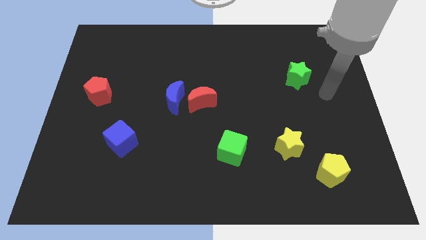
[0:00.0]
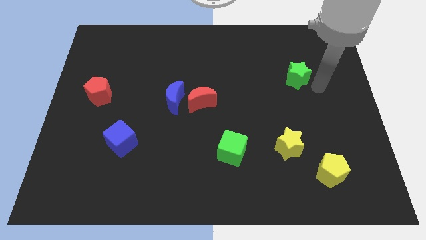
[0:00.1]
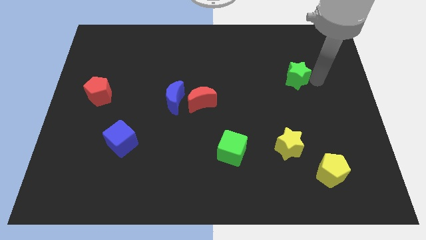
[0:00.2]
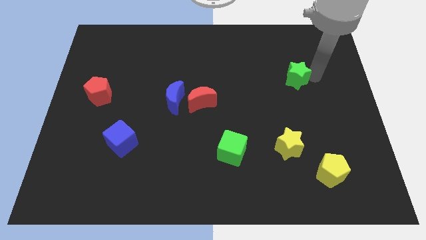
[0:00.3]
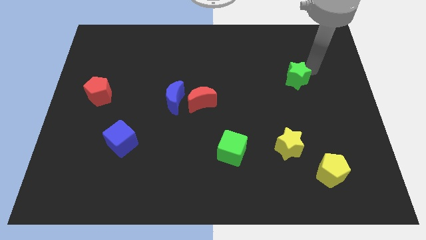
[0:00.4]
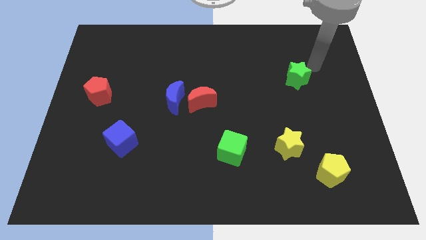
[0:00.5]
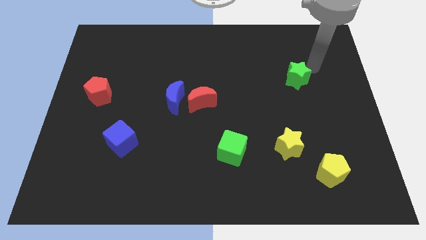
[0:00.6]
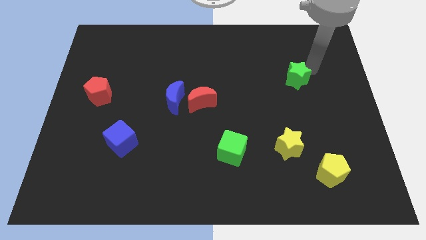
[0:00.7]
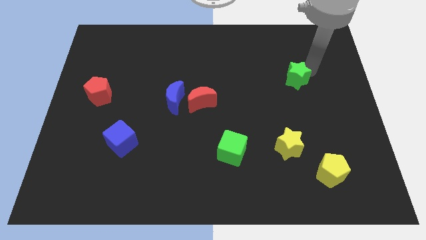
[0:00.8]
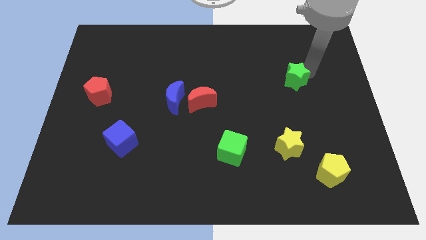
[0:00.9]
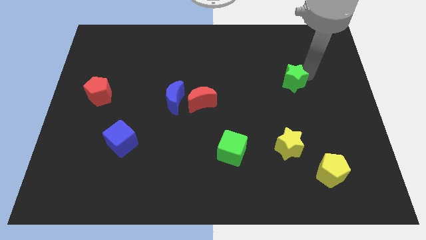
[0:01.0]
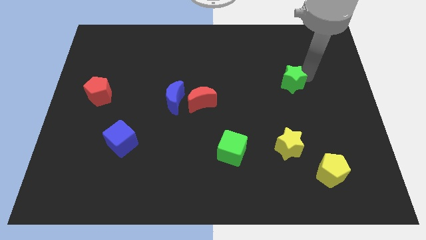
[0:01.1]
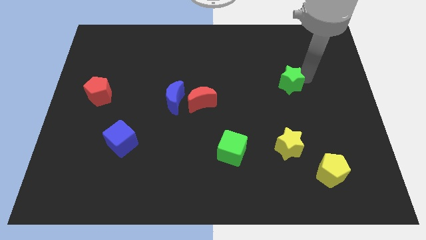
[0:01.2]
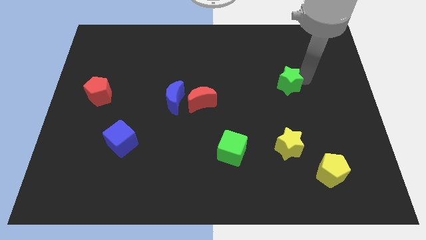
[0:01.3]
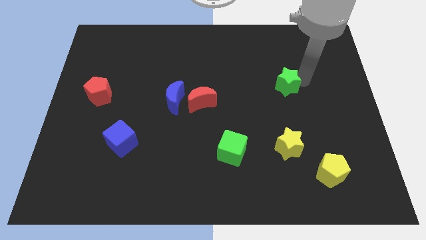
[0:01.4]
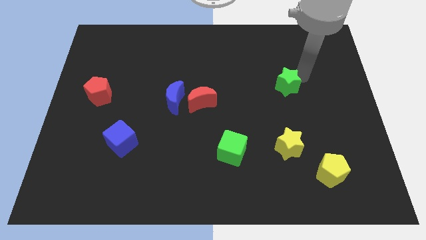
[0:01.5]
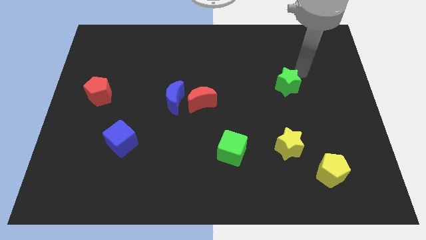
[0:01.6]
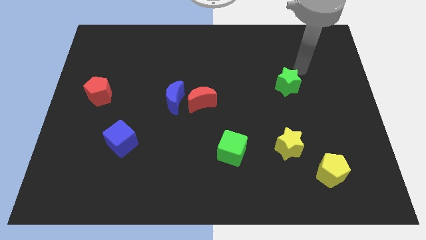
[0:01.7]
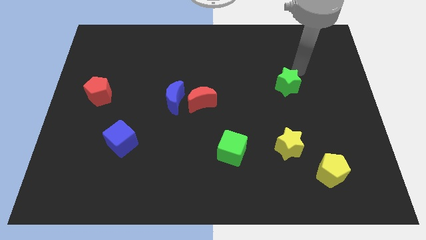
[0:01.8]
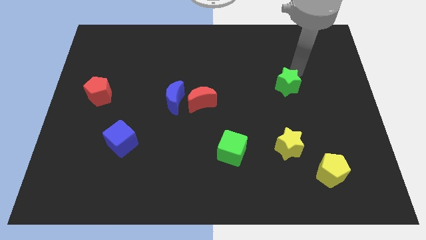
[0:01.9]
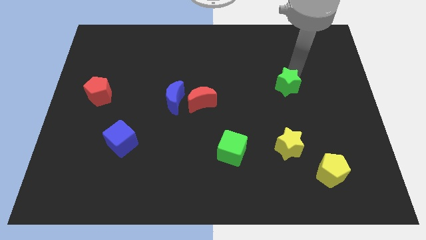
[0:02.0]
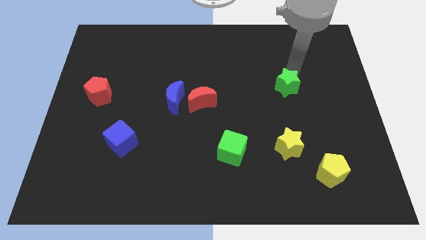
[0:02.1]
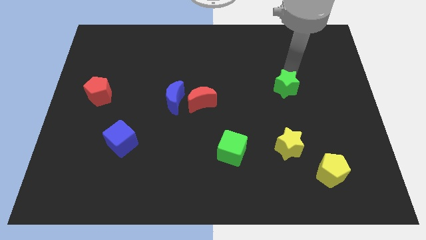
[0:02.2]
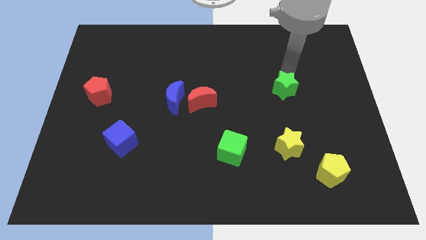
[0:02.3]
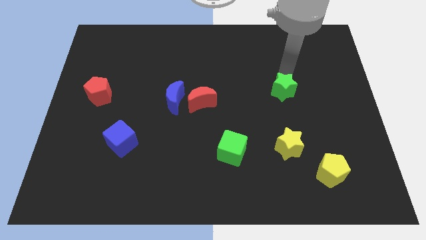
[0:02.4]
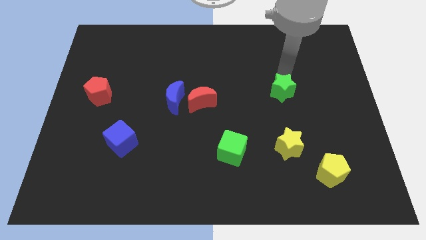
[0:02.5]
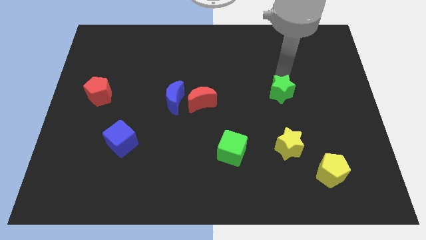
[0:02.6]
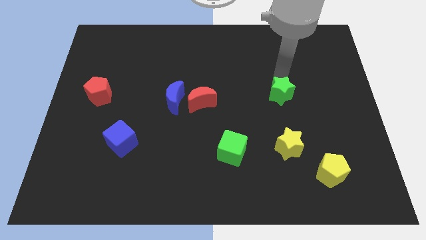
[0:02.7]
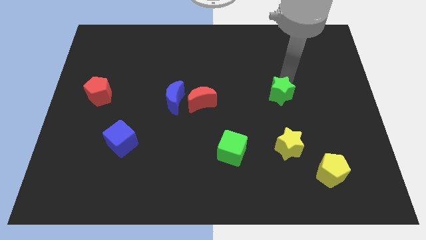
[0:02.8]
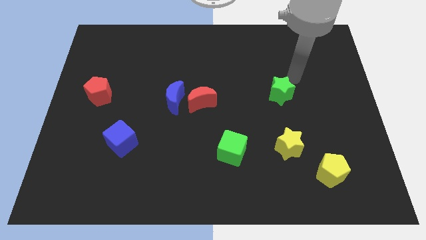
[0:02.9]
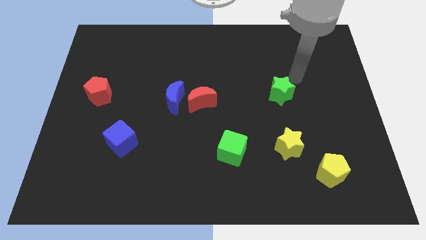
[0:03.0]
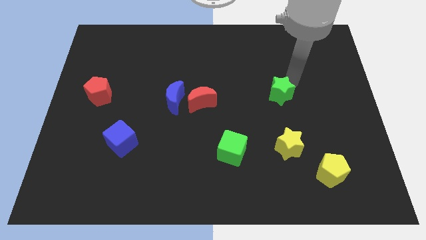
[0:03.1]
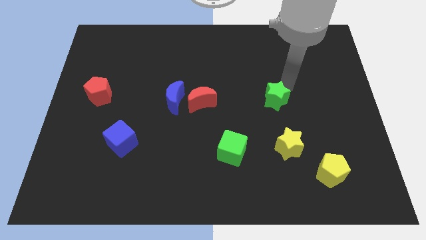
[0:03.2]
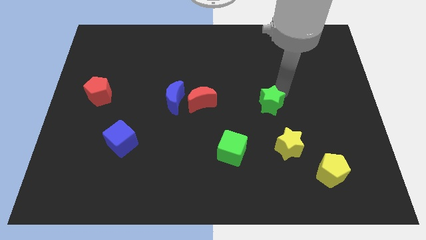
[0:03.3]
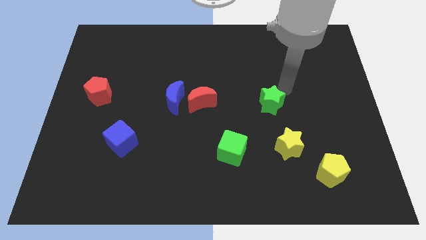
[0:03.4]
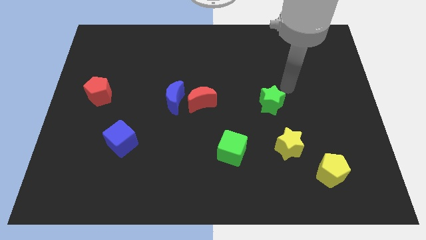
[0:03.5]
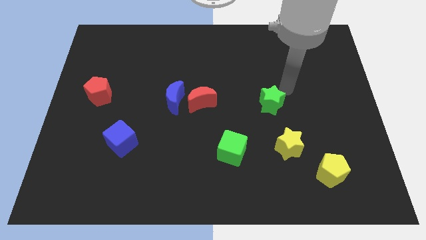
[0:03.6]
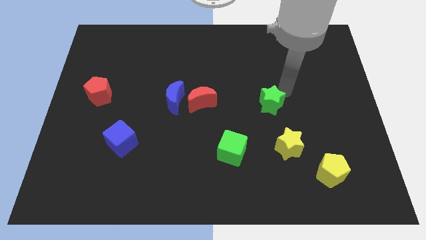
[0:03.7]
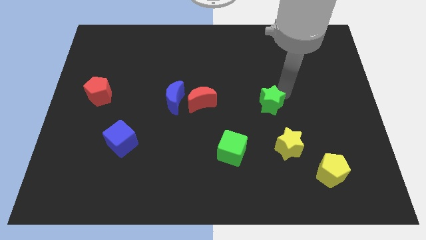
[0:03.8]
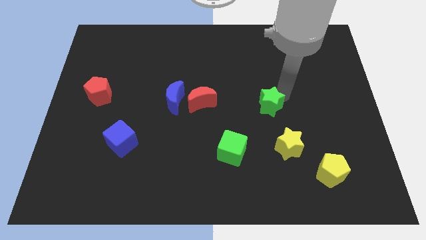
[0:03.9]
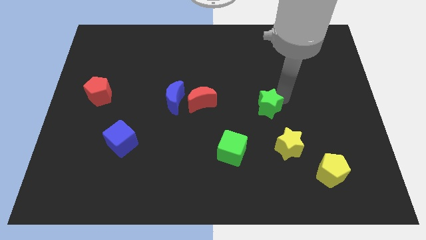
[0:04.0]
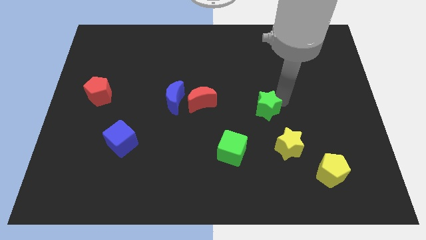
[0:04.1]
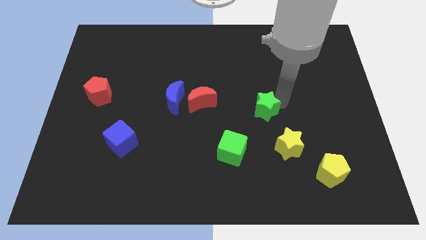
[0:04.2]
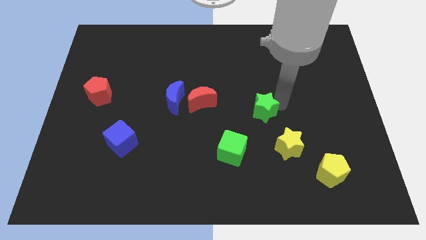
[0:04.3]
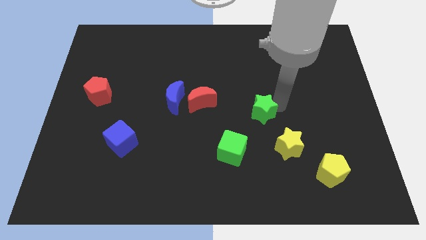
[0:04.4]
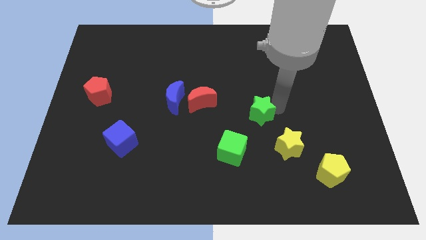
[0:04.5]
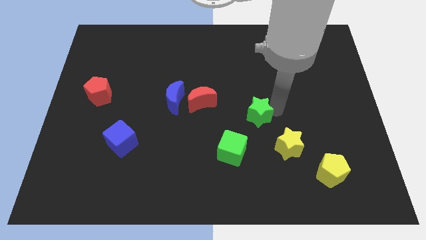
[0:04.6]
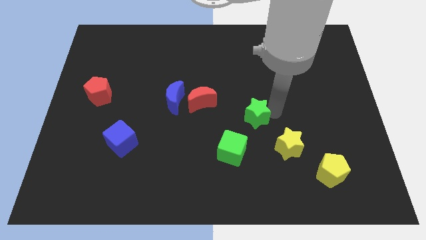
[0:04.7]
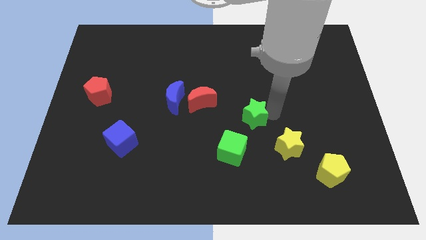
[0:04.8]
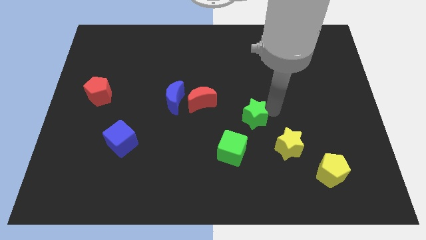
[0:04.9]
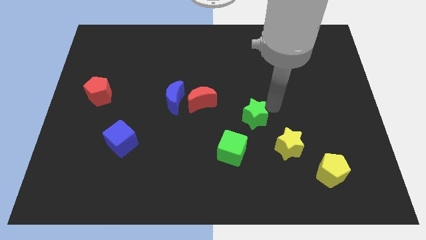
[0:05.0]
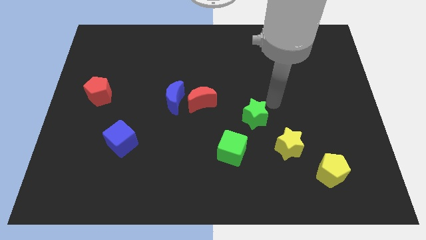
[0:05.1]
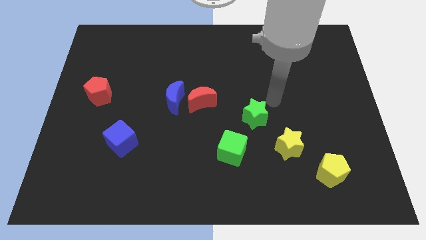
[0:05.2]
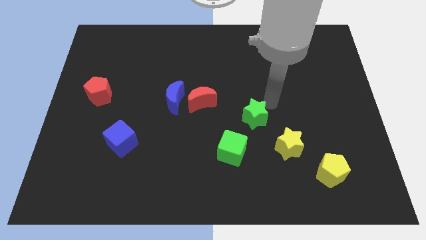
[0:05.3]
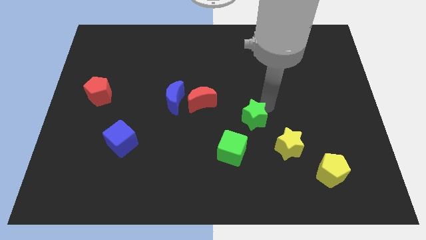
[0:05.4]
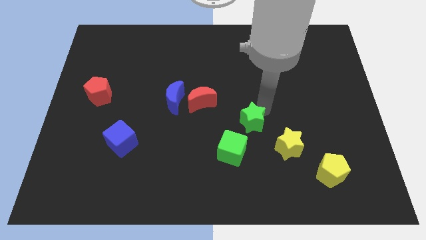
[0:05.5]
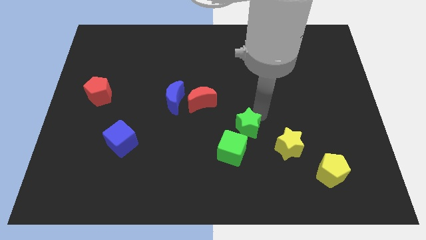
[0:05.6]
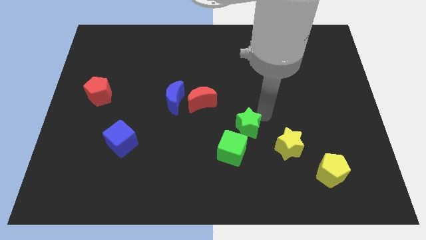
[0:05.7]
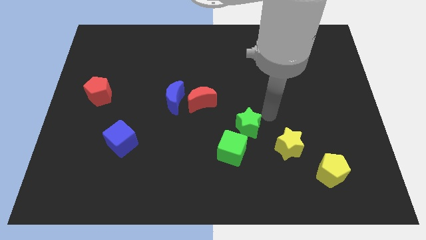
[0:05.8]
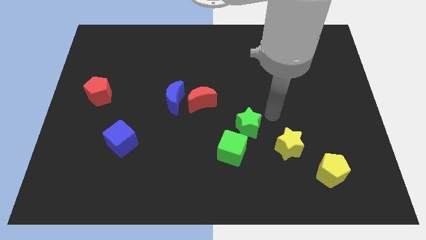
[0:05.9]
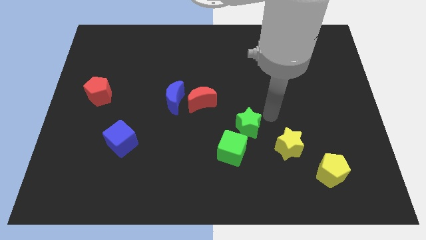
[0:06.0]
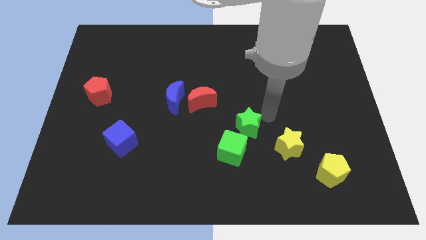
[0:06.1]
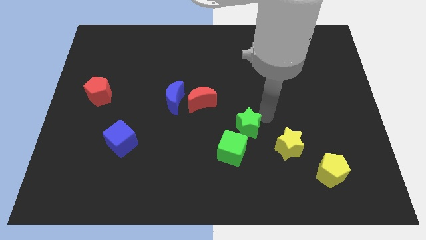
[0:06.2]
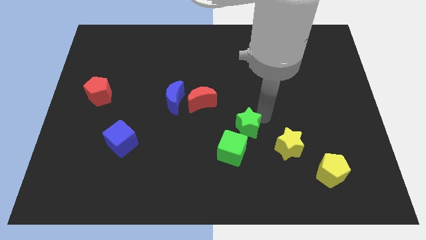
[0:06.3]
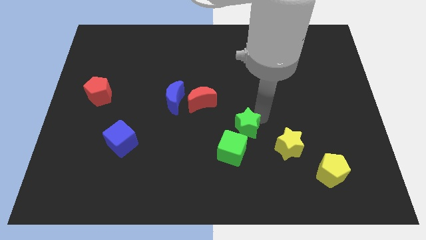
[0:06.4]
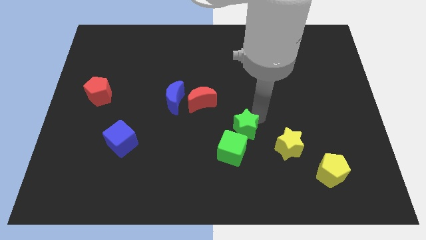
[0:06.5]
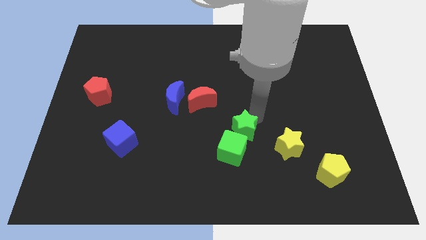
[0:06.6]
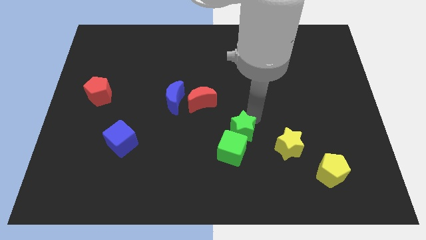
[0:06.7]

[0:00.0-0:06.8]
push the green star close to the green cube

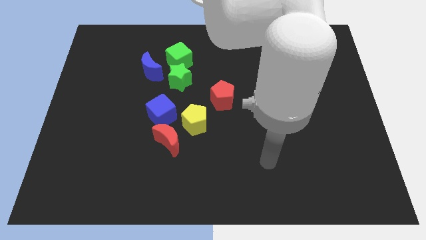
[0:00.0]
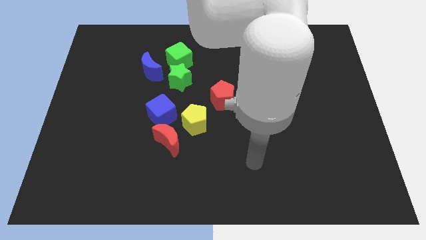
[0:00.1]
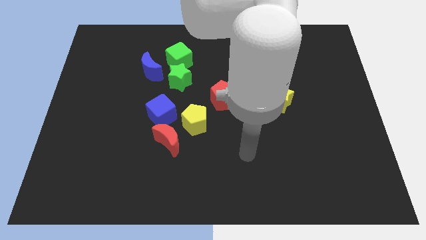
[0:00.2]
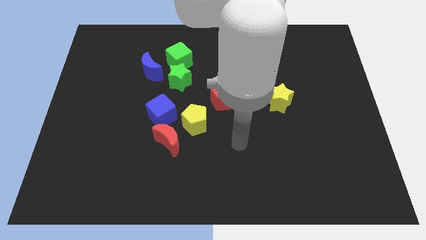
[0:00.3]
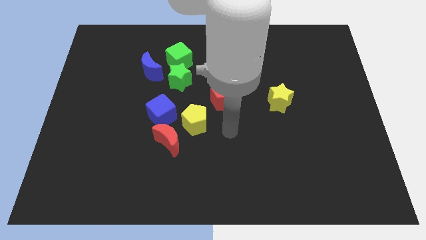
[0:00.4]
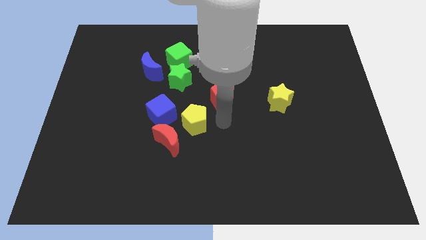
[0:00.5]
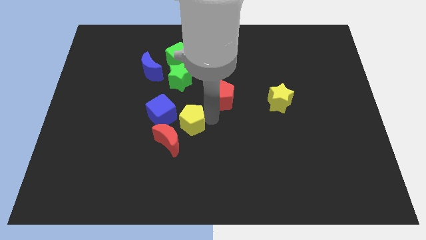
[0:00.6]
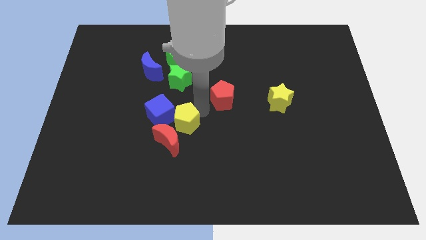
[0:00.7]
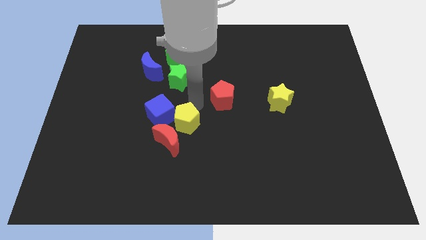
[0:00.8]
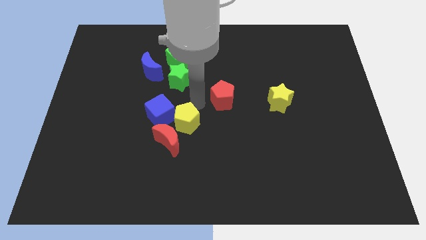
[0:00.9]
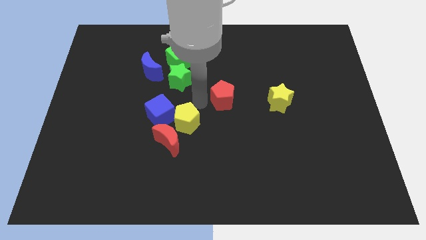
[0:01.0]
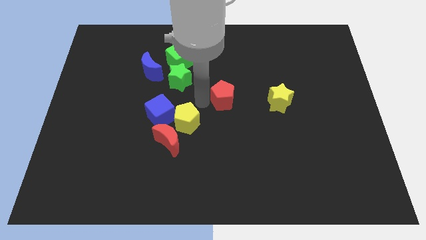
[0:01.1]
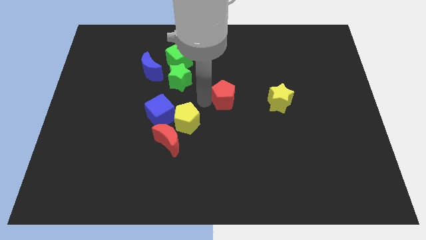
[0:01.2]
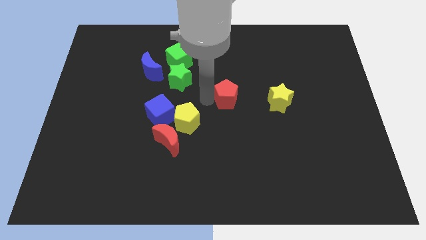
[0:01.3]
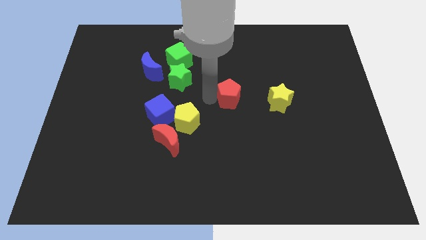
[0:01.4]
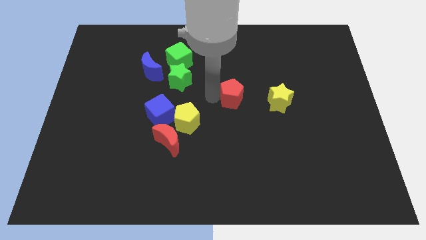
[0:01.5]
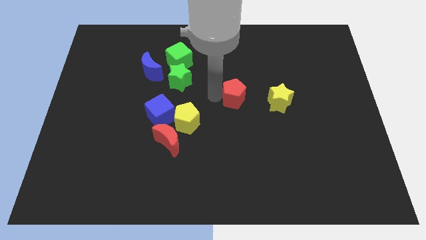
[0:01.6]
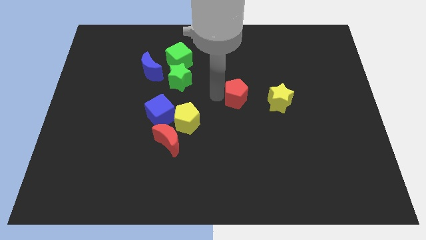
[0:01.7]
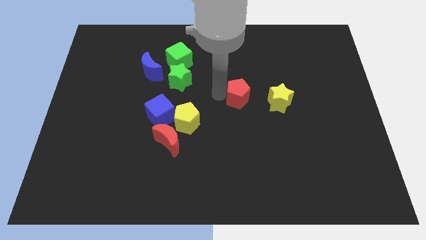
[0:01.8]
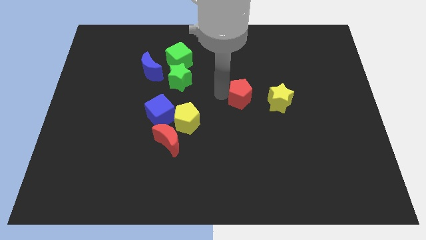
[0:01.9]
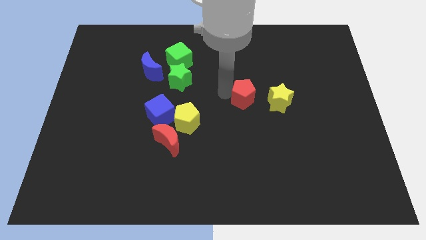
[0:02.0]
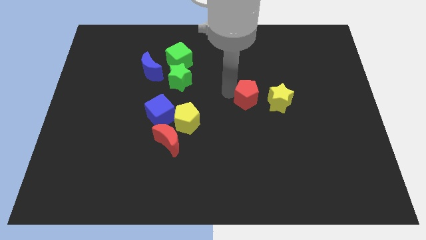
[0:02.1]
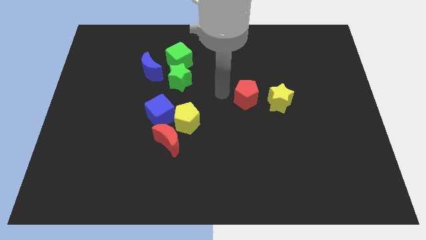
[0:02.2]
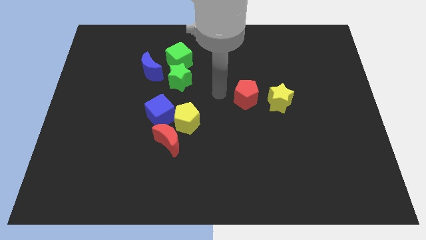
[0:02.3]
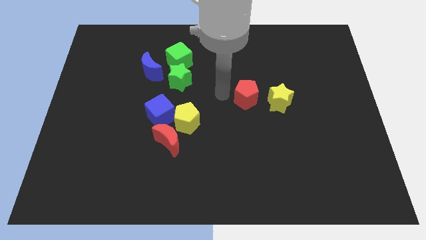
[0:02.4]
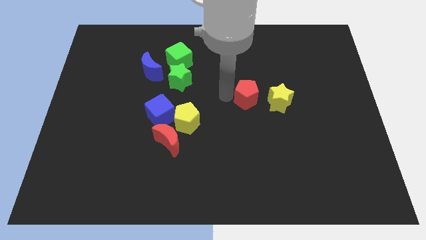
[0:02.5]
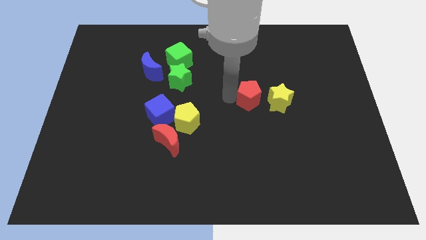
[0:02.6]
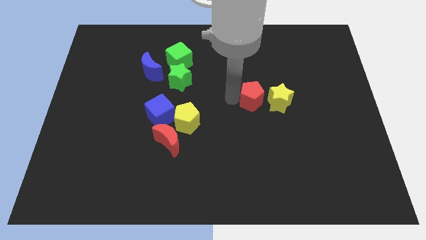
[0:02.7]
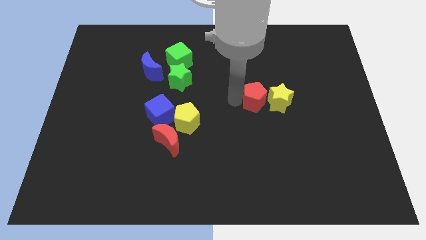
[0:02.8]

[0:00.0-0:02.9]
move the red pentagon towards the yellow star
